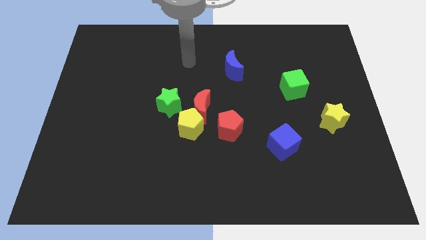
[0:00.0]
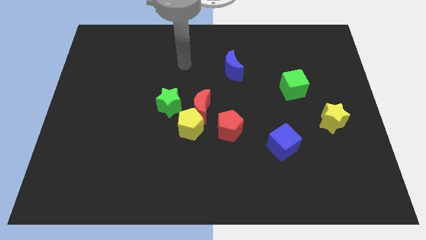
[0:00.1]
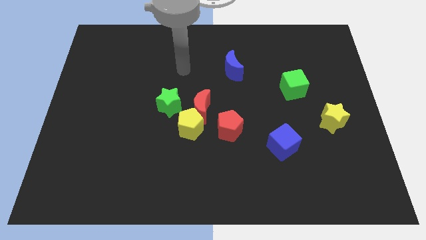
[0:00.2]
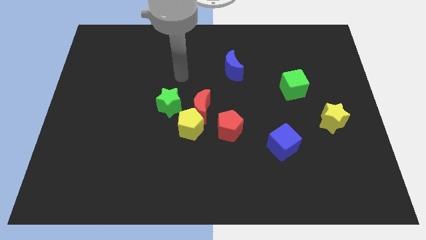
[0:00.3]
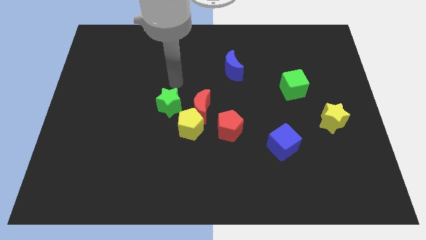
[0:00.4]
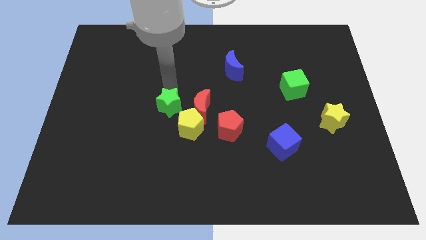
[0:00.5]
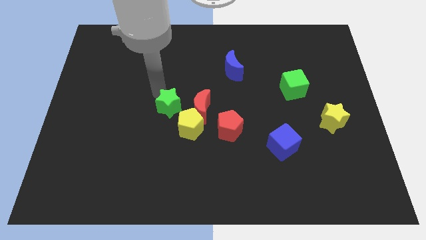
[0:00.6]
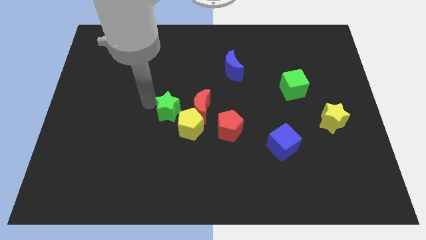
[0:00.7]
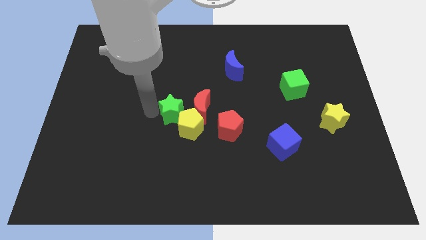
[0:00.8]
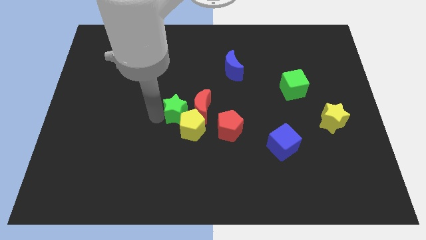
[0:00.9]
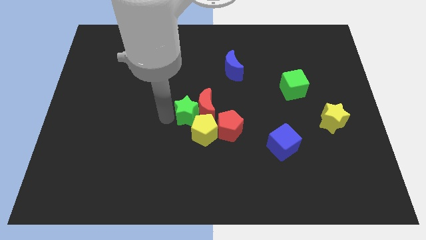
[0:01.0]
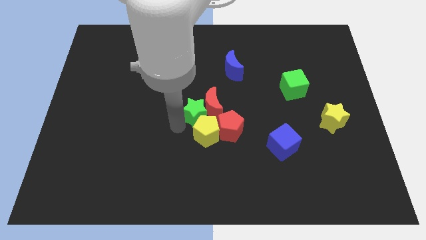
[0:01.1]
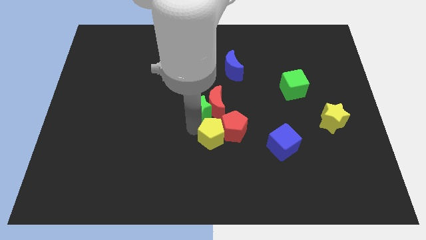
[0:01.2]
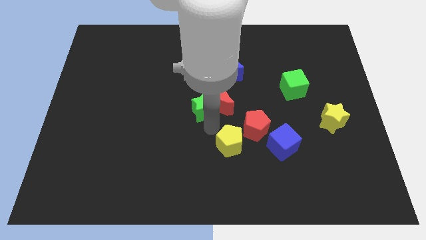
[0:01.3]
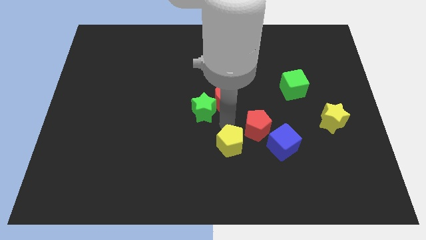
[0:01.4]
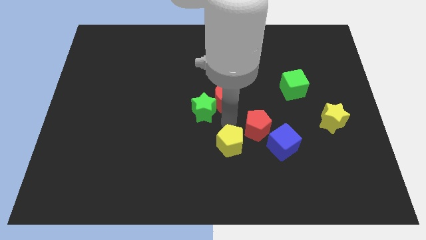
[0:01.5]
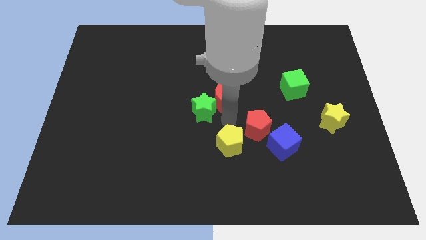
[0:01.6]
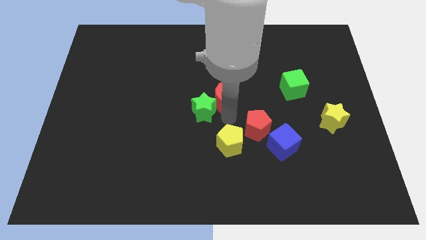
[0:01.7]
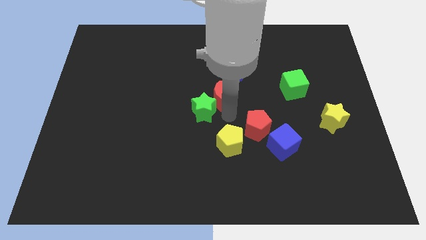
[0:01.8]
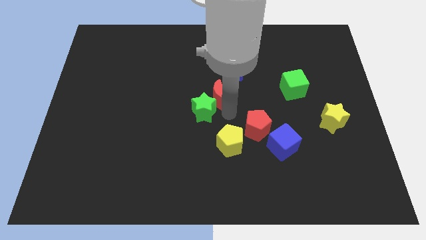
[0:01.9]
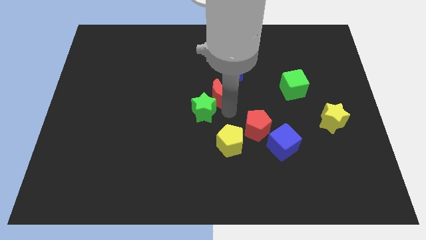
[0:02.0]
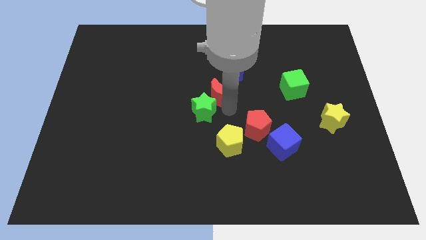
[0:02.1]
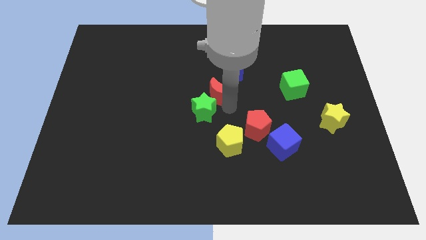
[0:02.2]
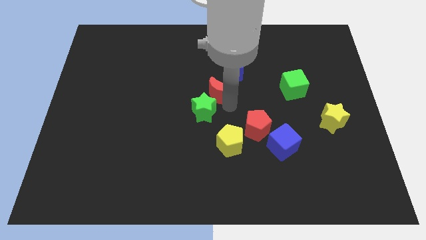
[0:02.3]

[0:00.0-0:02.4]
pull the red moon apart from the clump

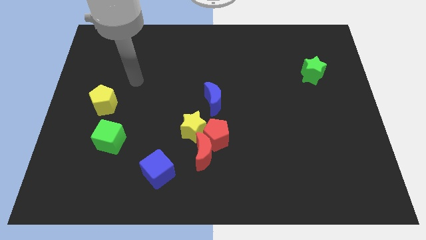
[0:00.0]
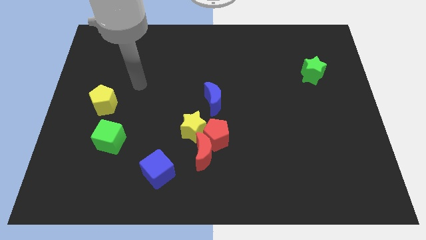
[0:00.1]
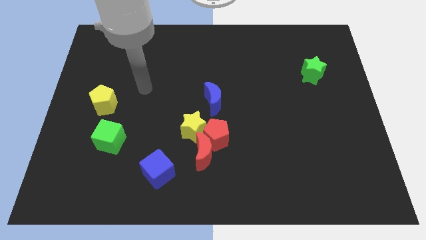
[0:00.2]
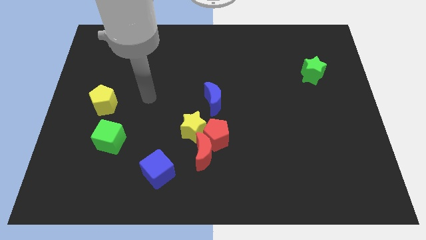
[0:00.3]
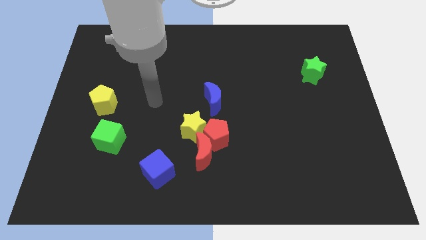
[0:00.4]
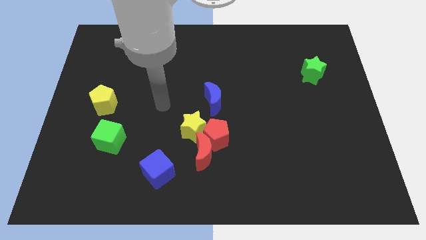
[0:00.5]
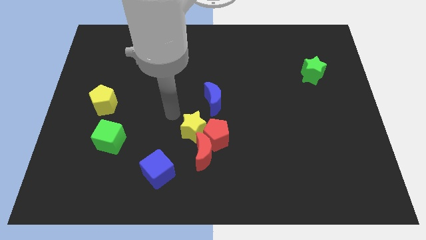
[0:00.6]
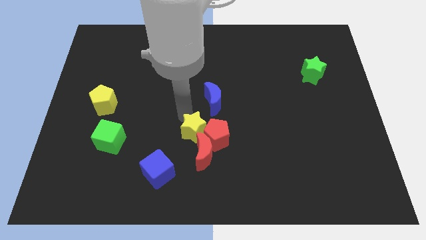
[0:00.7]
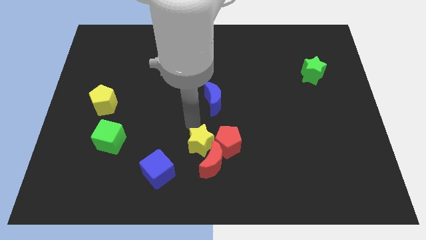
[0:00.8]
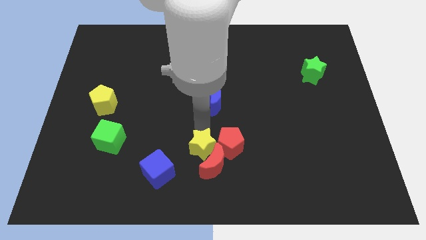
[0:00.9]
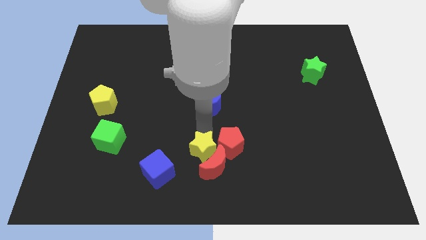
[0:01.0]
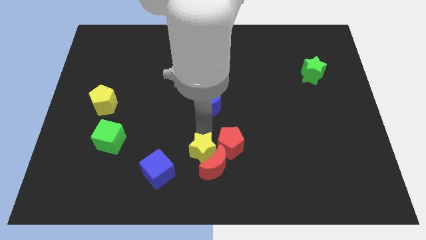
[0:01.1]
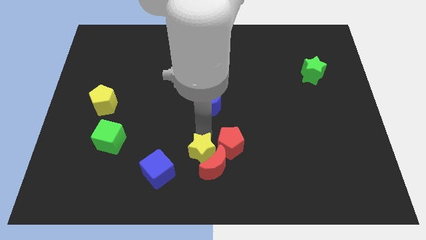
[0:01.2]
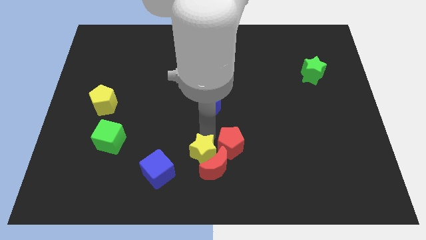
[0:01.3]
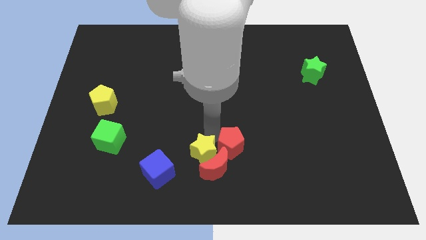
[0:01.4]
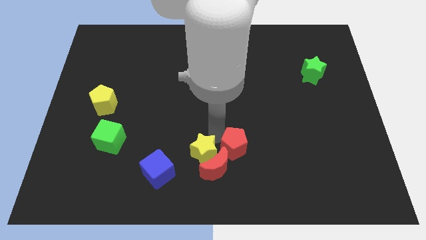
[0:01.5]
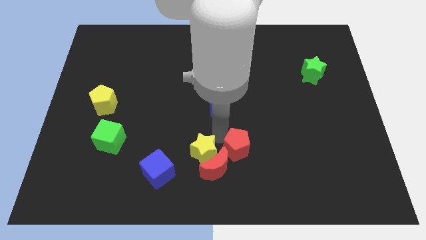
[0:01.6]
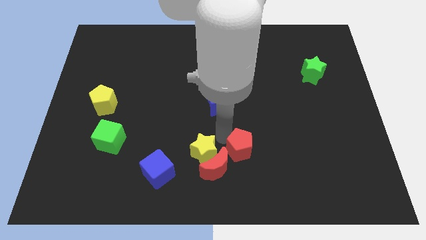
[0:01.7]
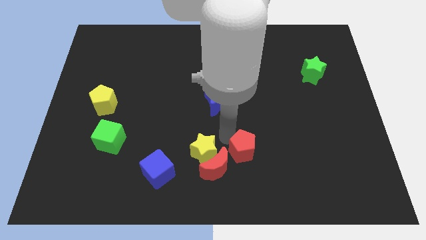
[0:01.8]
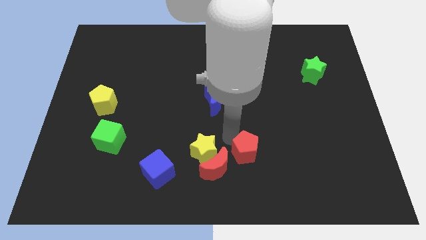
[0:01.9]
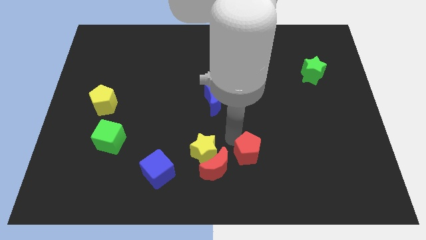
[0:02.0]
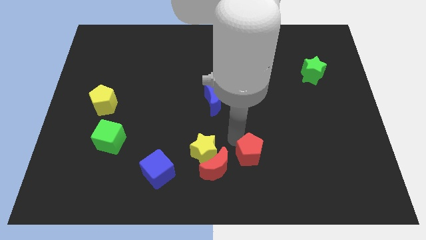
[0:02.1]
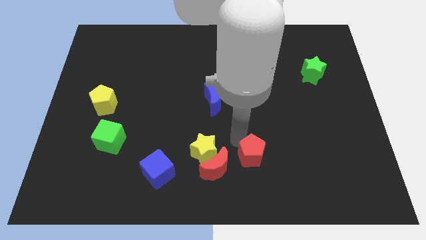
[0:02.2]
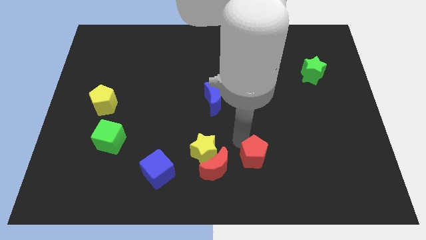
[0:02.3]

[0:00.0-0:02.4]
move the red pentagon away from the group

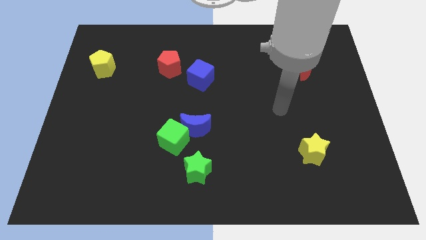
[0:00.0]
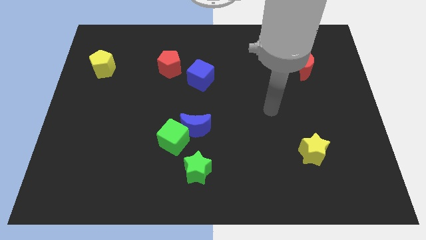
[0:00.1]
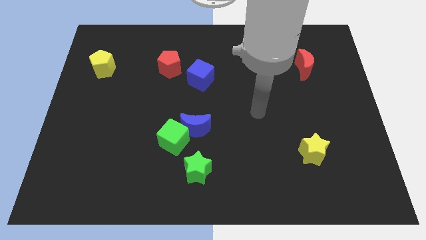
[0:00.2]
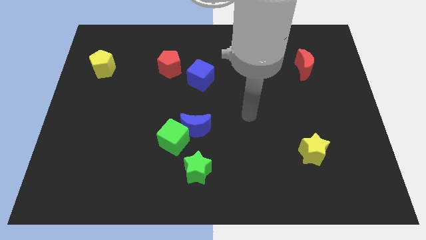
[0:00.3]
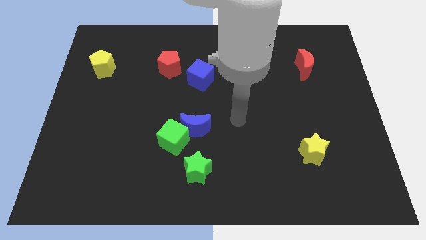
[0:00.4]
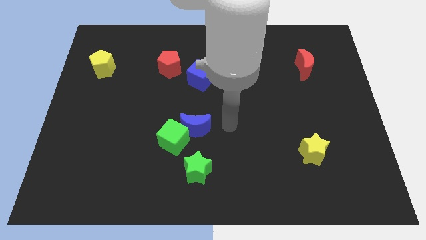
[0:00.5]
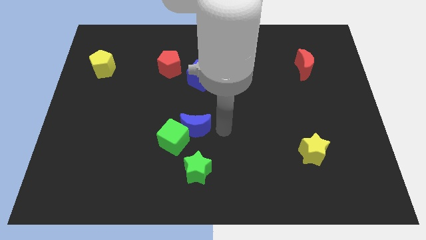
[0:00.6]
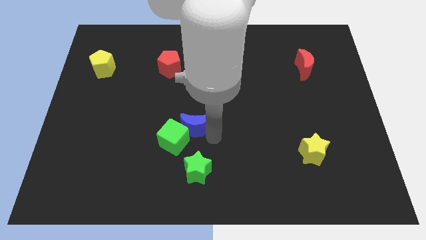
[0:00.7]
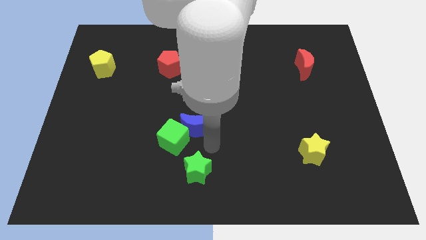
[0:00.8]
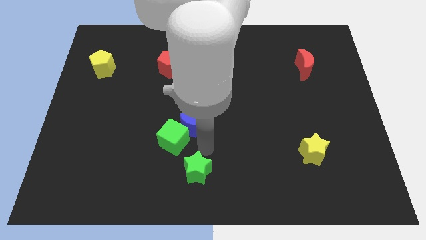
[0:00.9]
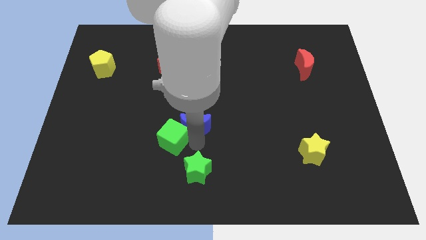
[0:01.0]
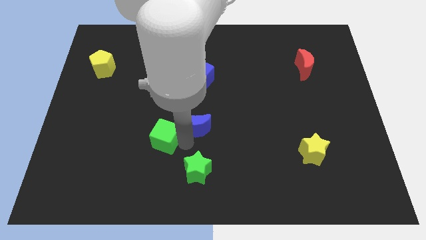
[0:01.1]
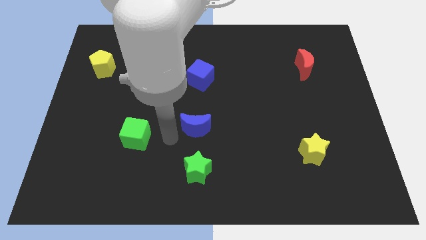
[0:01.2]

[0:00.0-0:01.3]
pull the blue moon apart from the green cube

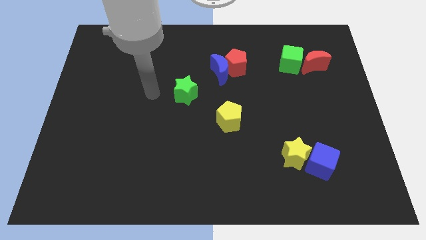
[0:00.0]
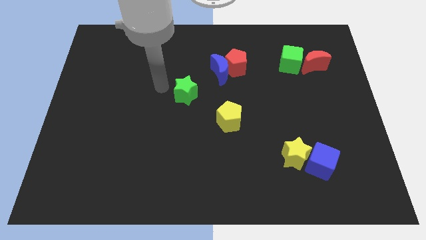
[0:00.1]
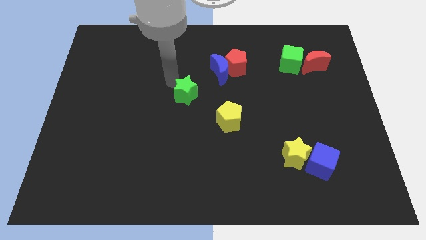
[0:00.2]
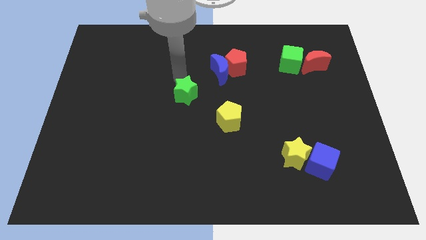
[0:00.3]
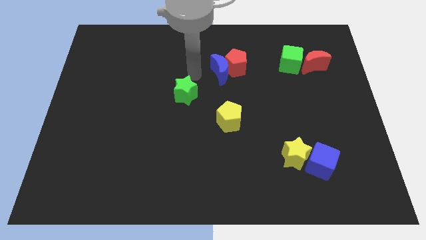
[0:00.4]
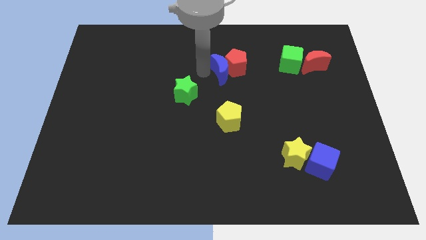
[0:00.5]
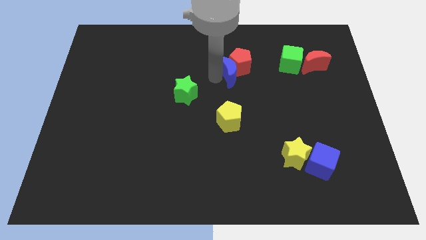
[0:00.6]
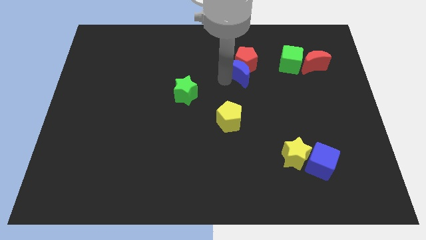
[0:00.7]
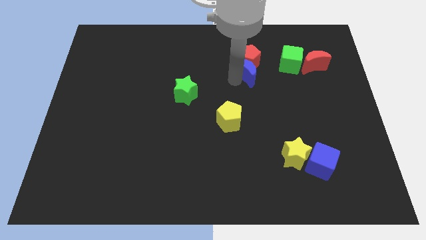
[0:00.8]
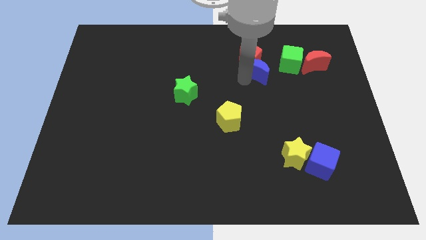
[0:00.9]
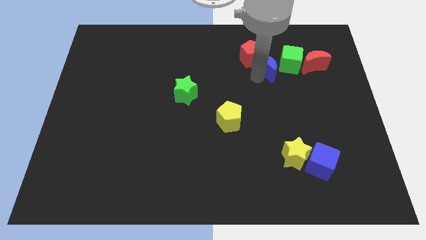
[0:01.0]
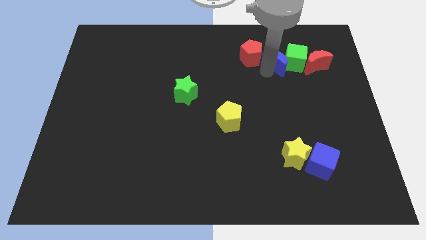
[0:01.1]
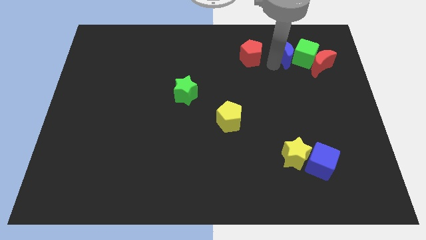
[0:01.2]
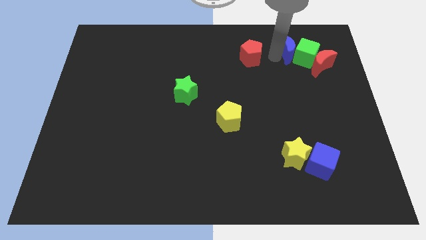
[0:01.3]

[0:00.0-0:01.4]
pull the red pentagon apart from the blue moon

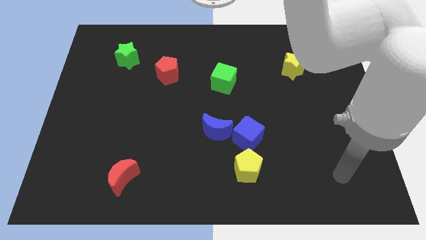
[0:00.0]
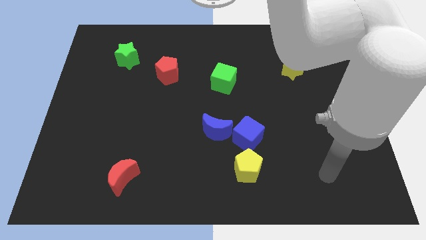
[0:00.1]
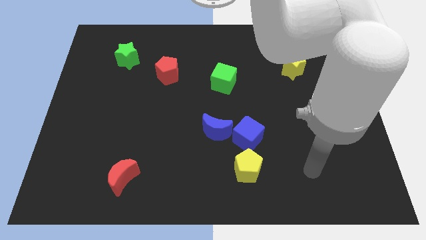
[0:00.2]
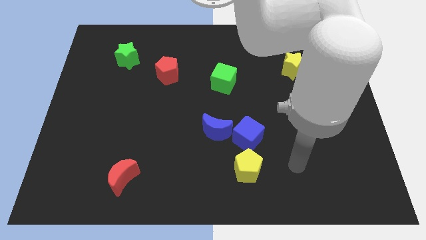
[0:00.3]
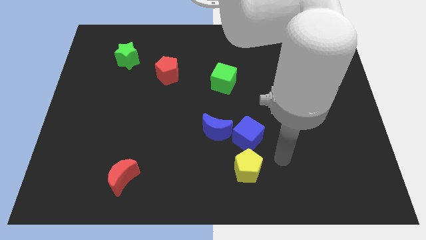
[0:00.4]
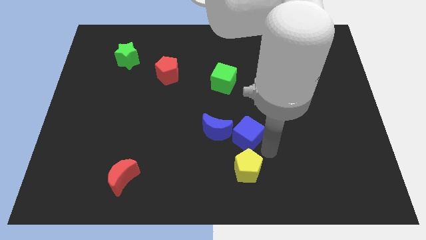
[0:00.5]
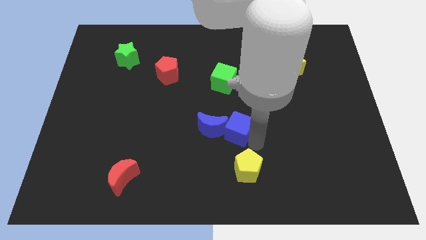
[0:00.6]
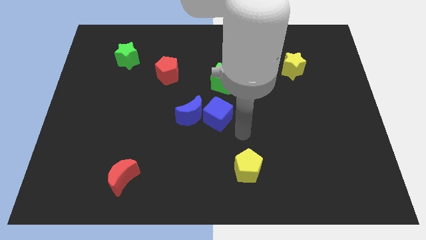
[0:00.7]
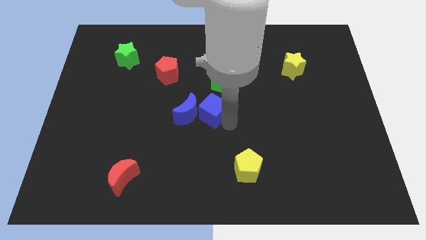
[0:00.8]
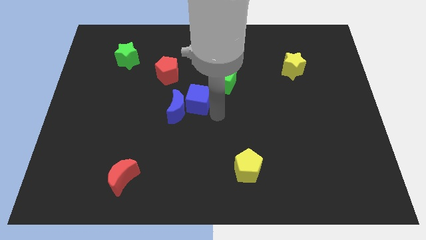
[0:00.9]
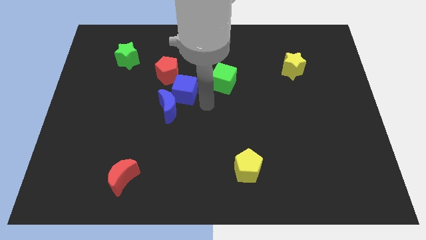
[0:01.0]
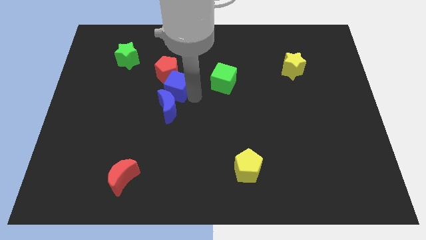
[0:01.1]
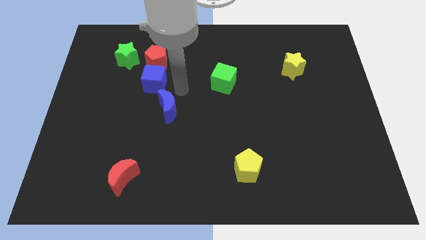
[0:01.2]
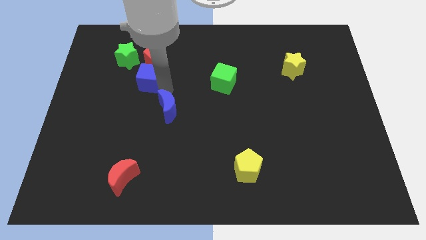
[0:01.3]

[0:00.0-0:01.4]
separate the blue moon from the blue cube

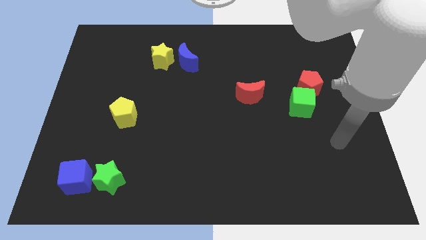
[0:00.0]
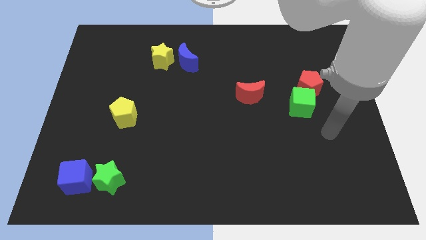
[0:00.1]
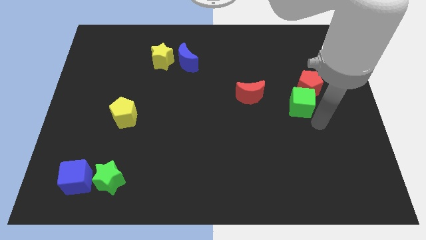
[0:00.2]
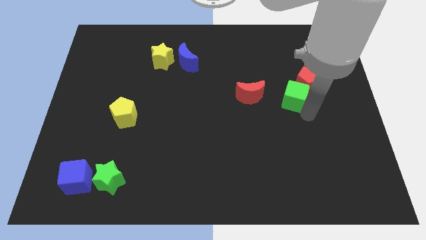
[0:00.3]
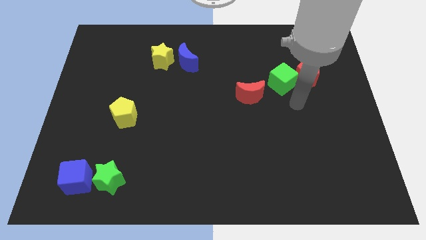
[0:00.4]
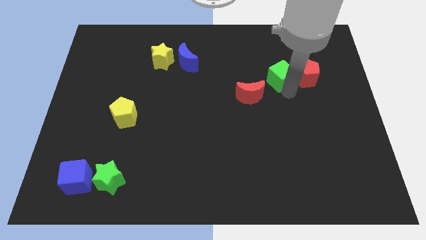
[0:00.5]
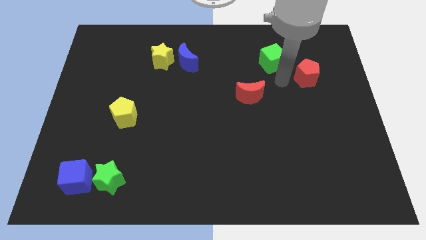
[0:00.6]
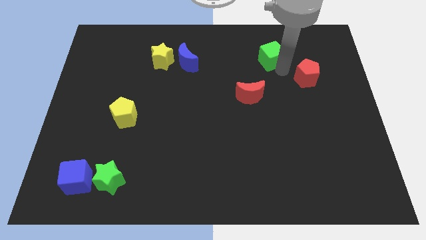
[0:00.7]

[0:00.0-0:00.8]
move the red pentagon away from the green cube
